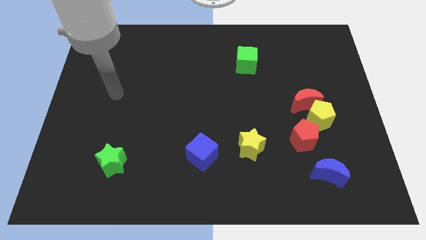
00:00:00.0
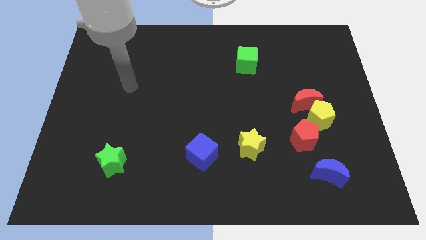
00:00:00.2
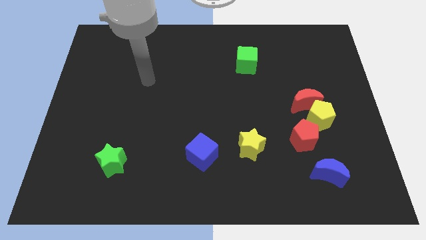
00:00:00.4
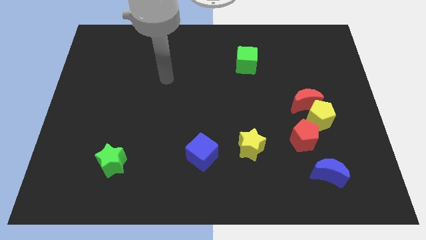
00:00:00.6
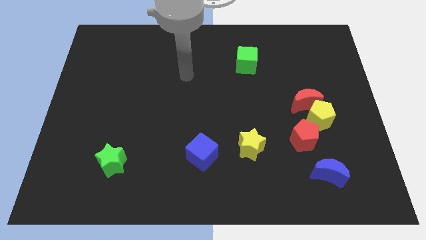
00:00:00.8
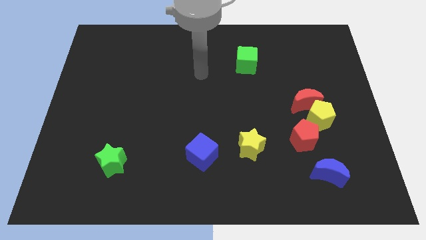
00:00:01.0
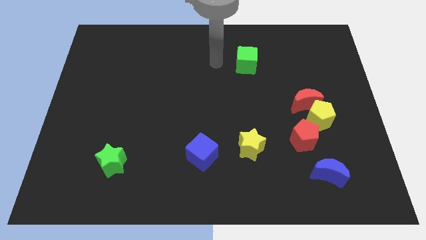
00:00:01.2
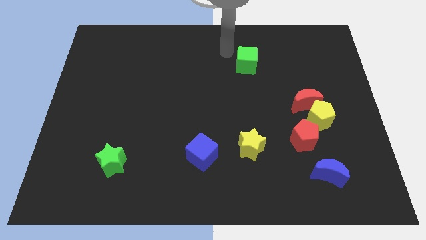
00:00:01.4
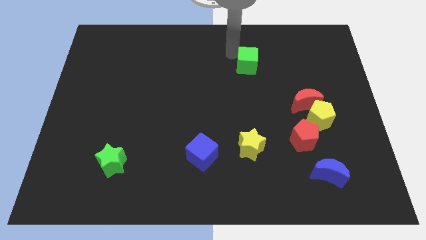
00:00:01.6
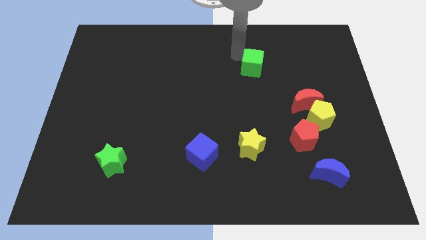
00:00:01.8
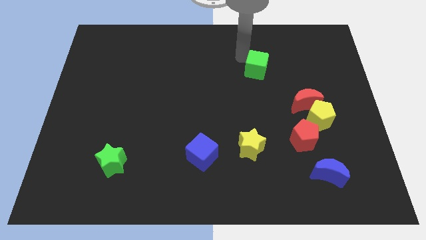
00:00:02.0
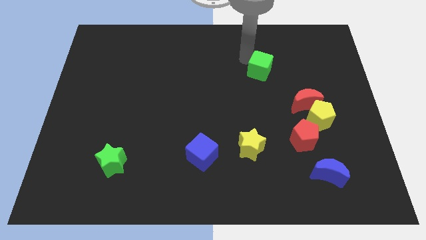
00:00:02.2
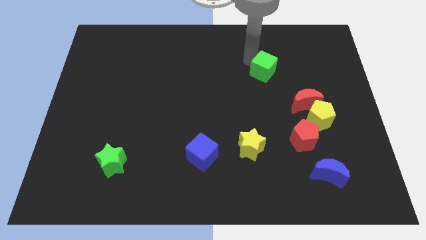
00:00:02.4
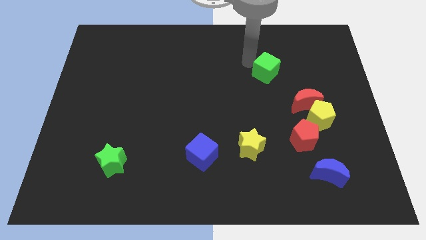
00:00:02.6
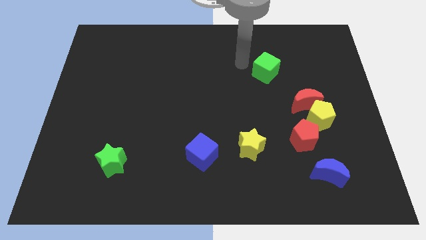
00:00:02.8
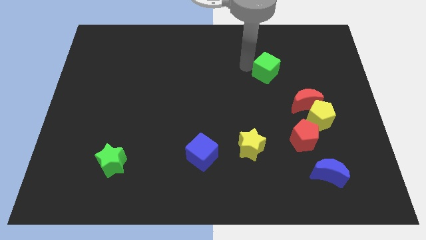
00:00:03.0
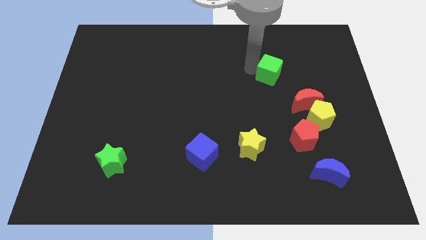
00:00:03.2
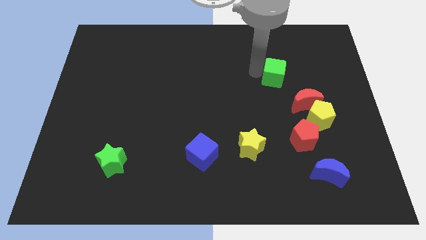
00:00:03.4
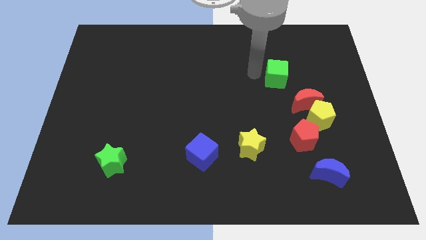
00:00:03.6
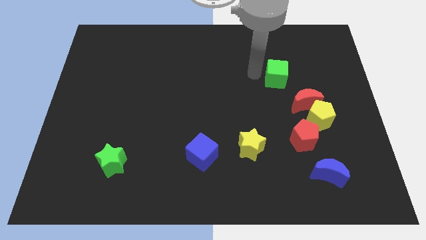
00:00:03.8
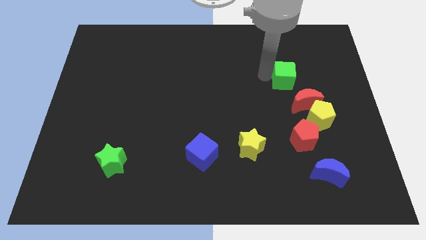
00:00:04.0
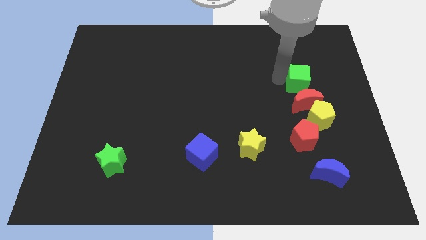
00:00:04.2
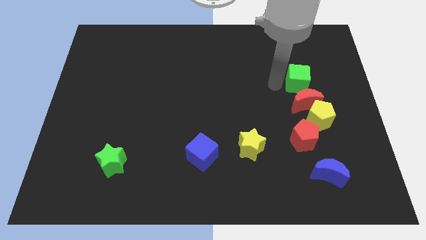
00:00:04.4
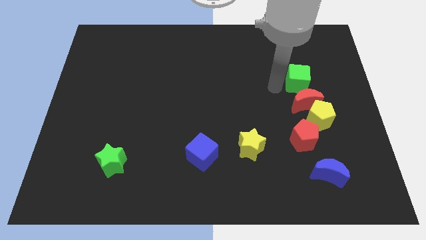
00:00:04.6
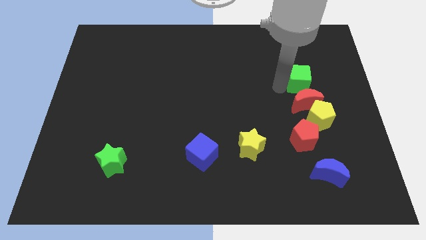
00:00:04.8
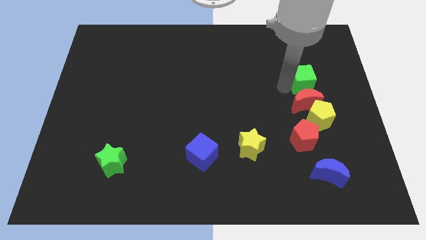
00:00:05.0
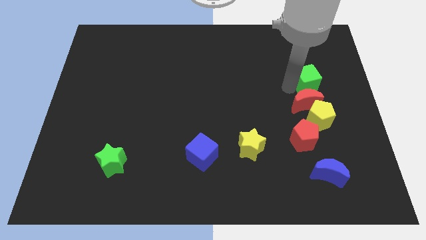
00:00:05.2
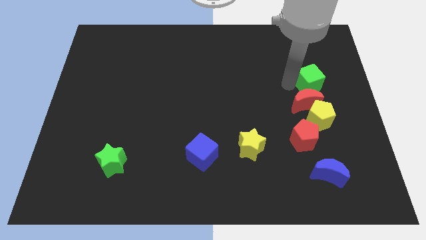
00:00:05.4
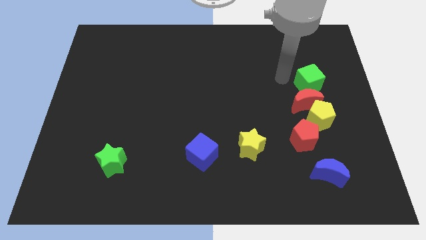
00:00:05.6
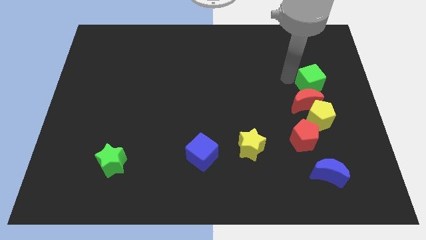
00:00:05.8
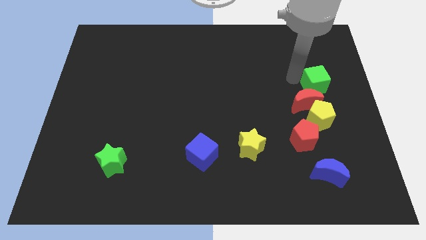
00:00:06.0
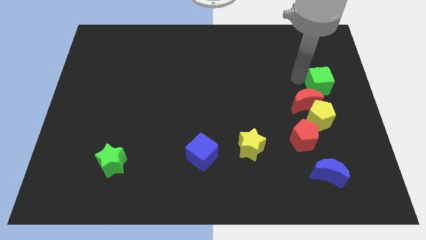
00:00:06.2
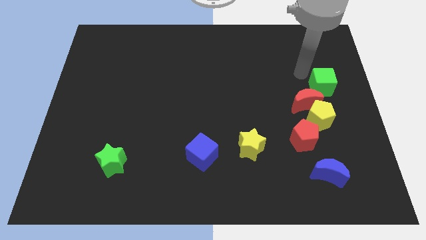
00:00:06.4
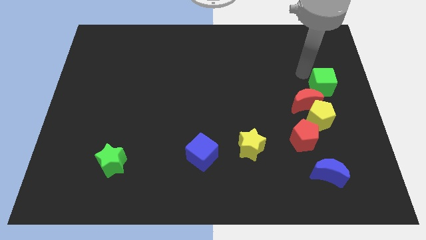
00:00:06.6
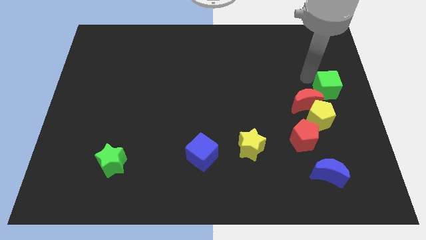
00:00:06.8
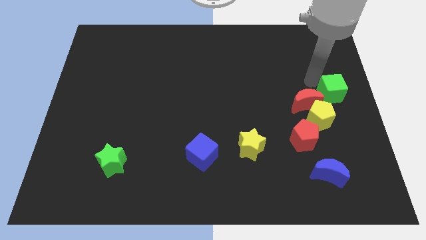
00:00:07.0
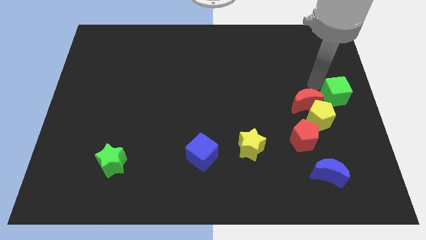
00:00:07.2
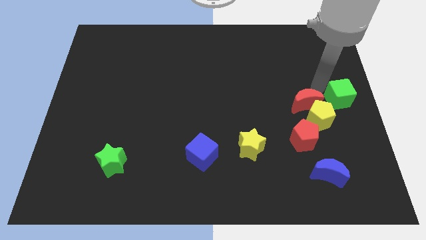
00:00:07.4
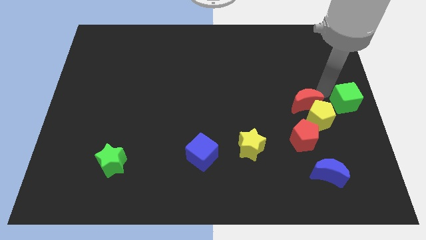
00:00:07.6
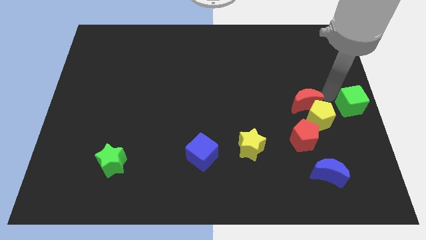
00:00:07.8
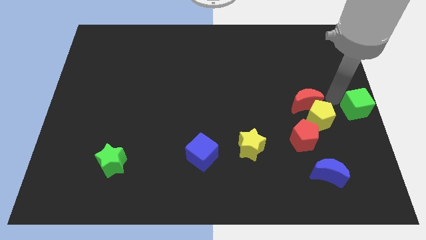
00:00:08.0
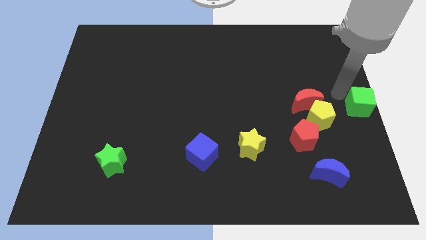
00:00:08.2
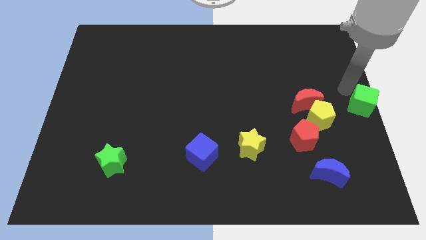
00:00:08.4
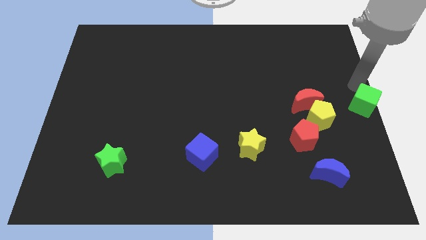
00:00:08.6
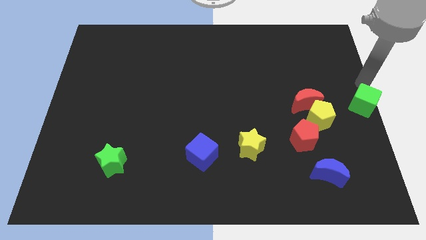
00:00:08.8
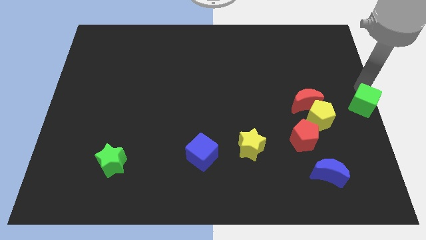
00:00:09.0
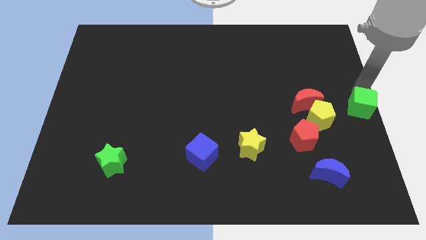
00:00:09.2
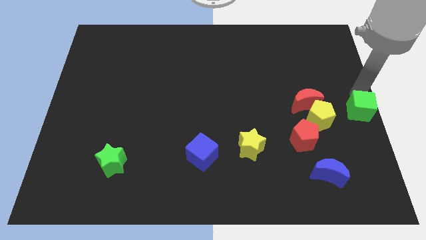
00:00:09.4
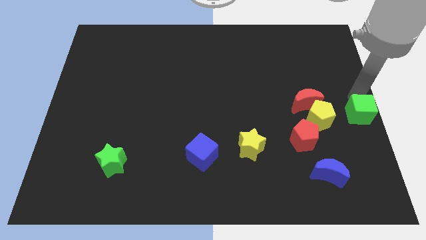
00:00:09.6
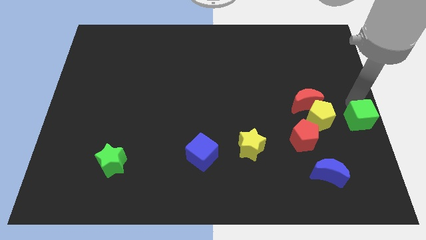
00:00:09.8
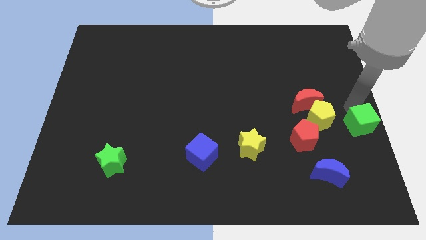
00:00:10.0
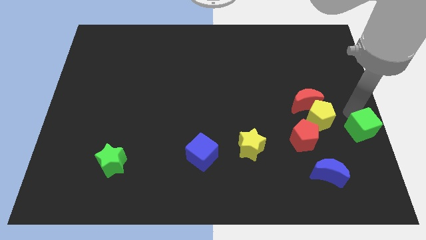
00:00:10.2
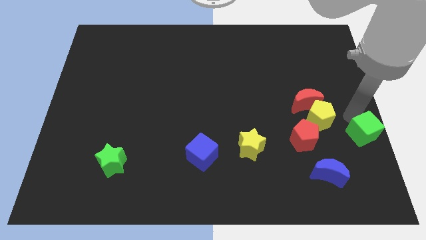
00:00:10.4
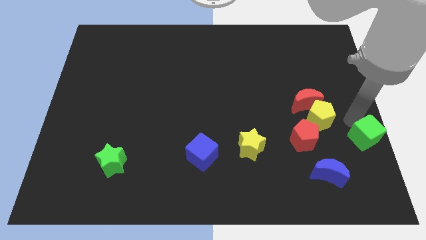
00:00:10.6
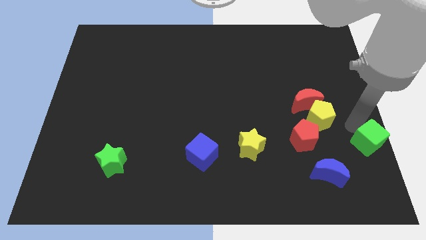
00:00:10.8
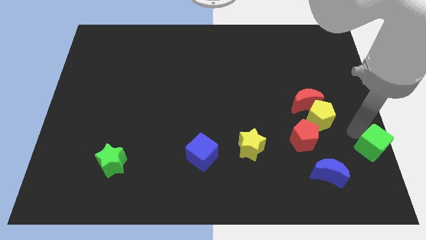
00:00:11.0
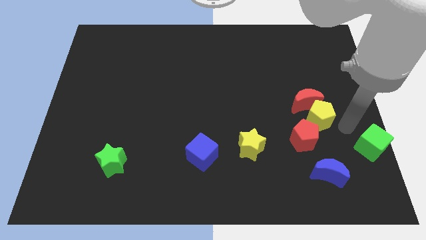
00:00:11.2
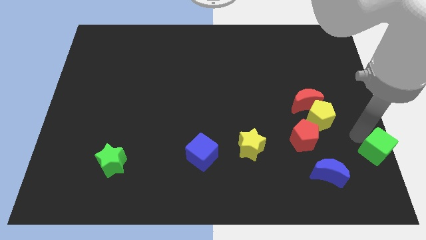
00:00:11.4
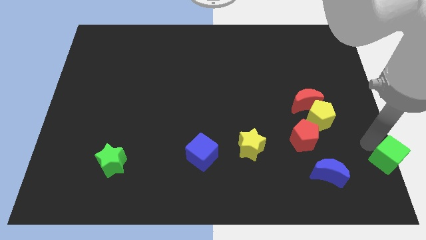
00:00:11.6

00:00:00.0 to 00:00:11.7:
move the green cube to the lower right corner

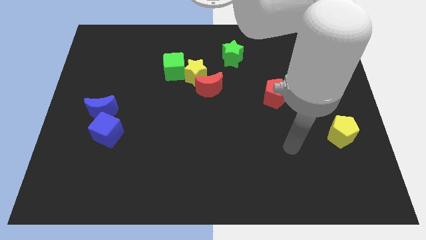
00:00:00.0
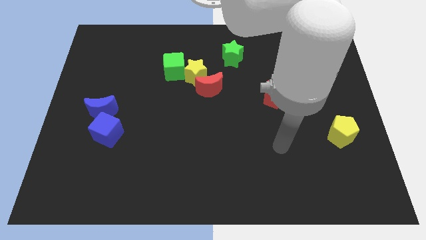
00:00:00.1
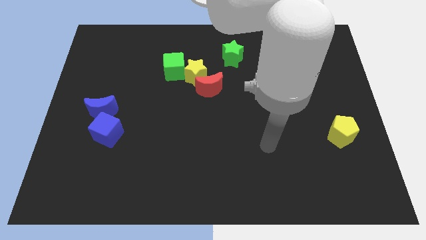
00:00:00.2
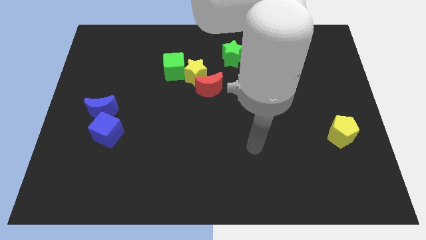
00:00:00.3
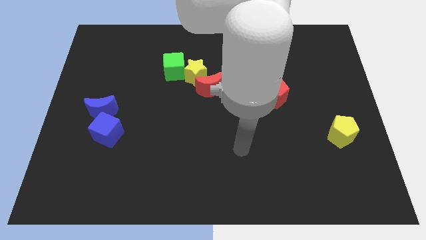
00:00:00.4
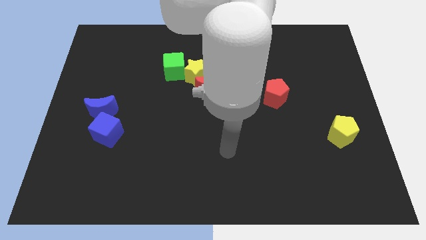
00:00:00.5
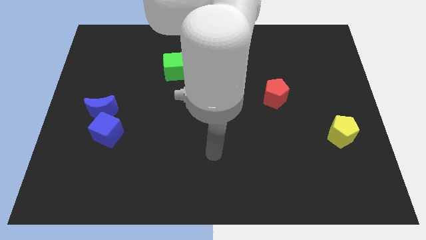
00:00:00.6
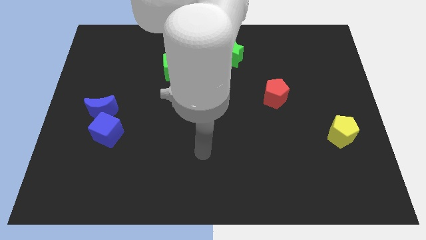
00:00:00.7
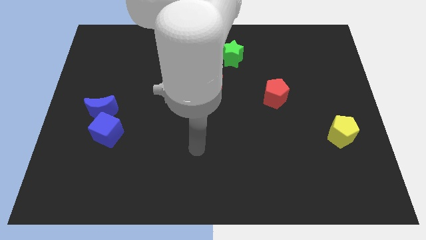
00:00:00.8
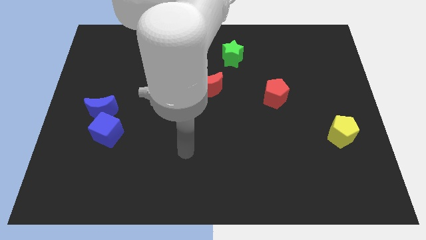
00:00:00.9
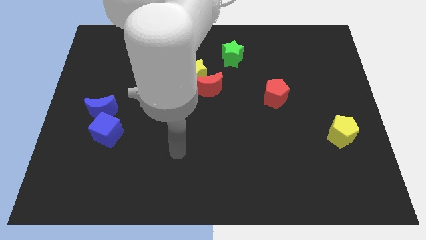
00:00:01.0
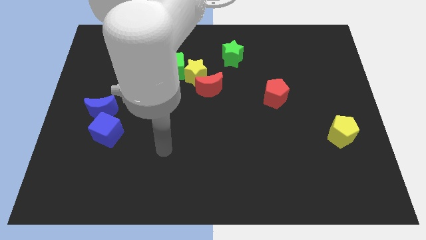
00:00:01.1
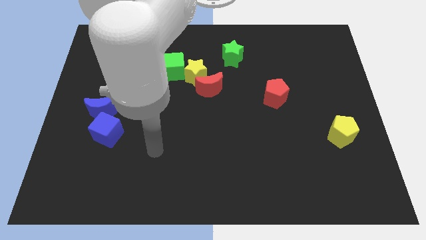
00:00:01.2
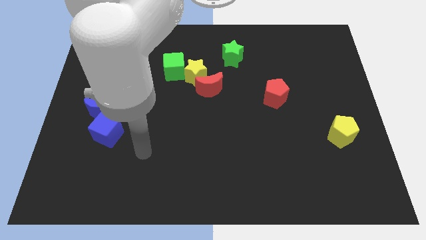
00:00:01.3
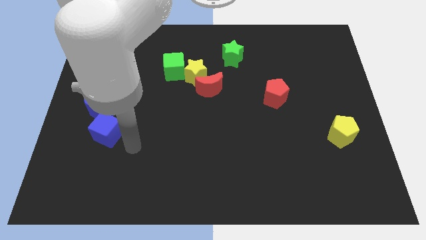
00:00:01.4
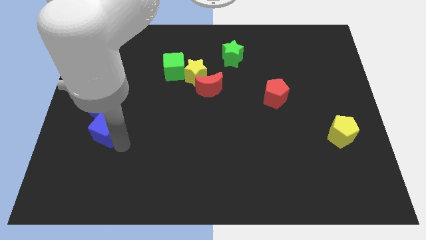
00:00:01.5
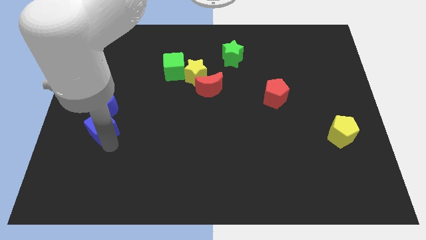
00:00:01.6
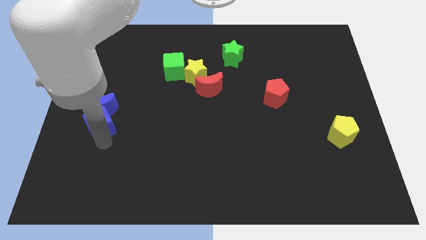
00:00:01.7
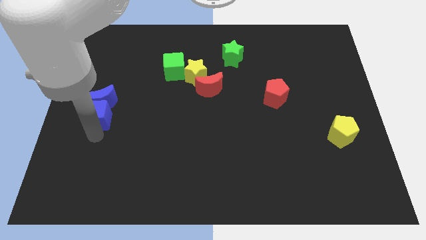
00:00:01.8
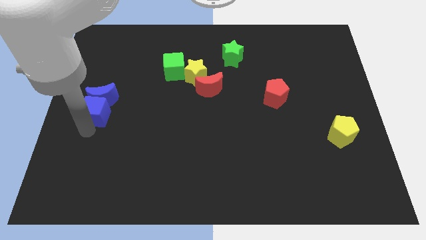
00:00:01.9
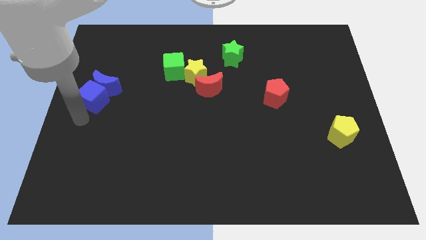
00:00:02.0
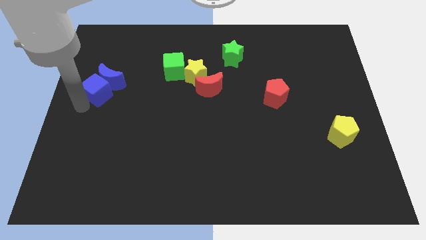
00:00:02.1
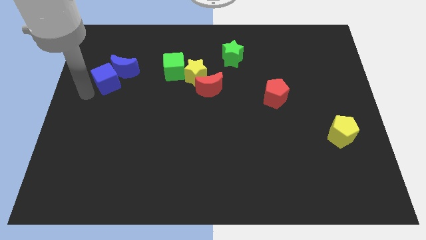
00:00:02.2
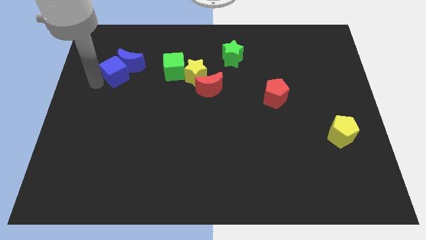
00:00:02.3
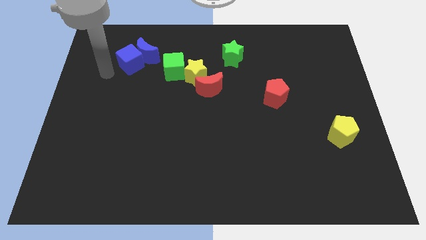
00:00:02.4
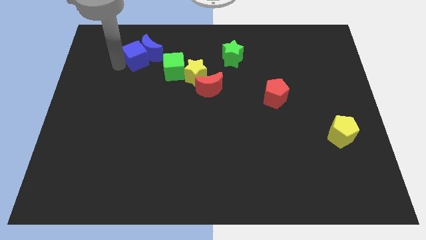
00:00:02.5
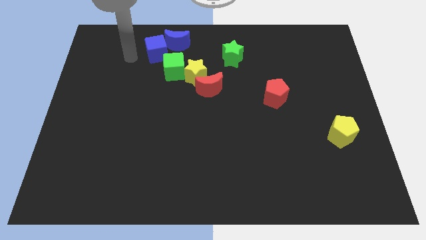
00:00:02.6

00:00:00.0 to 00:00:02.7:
slide the blue moon to the top side
